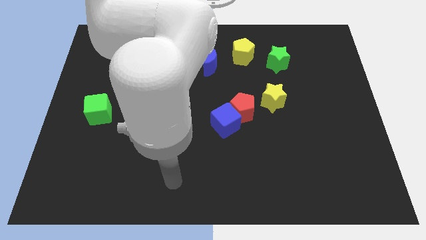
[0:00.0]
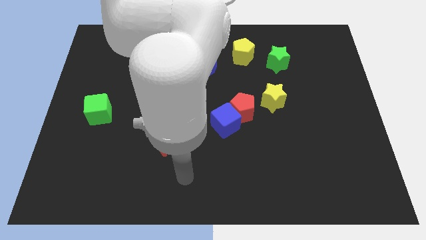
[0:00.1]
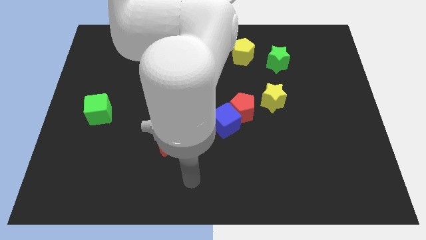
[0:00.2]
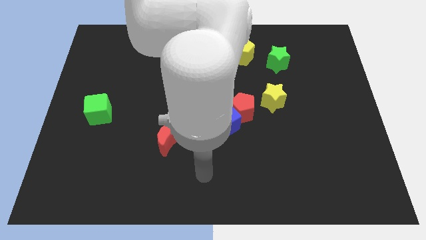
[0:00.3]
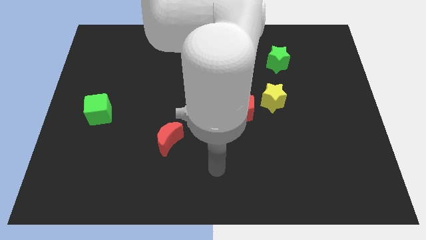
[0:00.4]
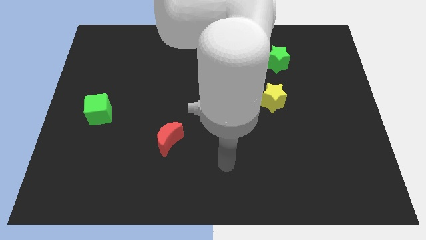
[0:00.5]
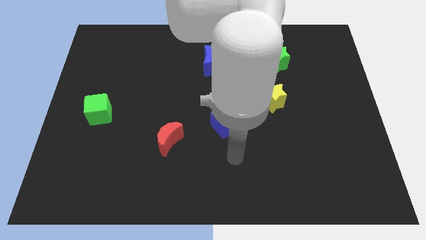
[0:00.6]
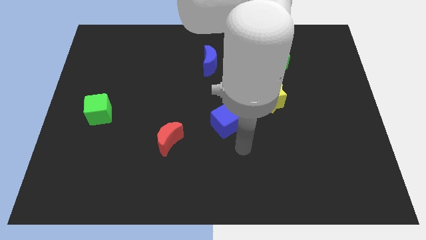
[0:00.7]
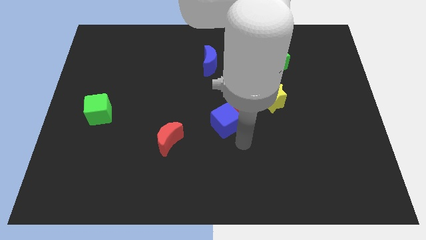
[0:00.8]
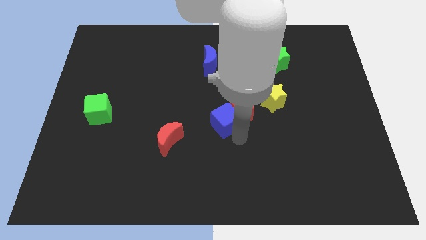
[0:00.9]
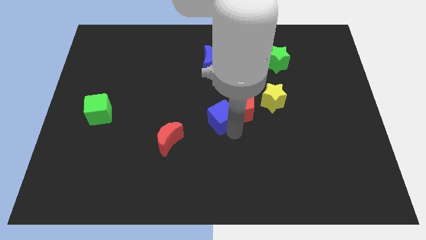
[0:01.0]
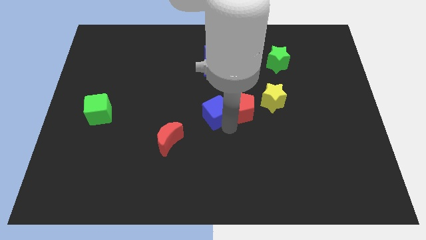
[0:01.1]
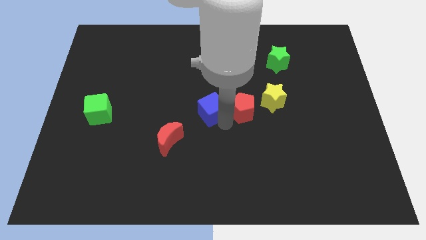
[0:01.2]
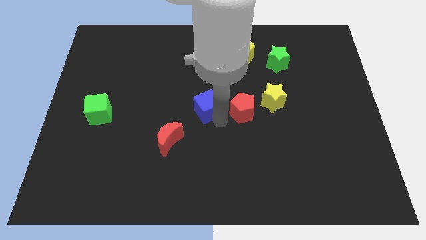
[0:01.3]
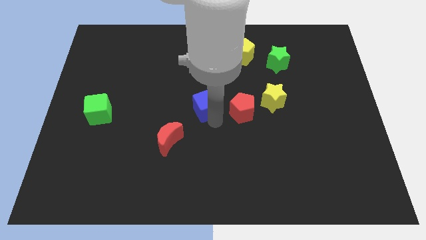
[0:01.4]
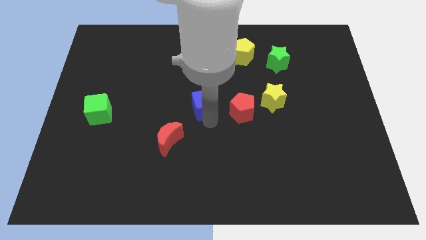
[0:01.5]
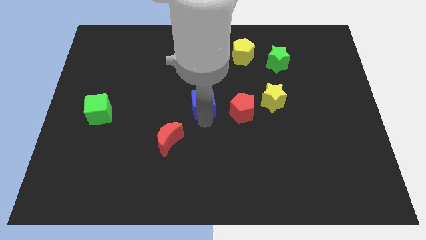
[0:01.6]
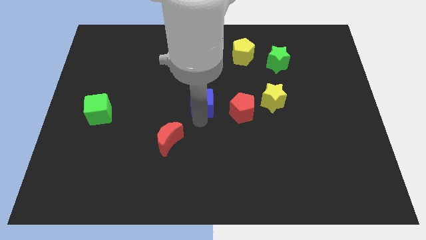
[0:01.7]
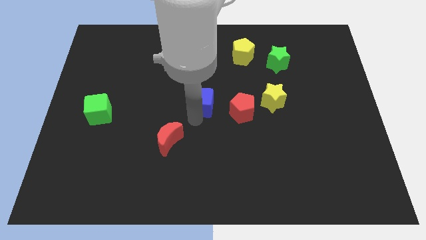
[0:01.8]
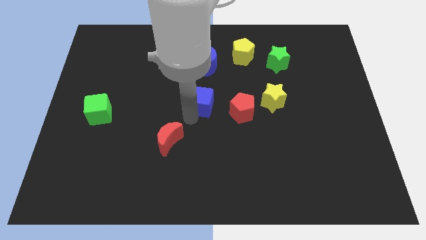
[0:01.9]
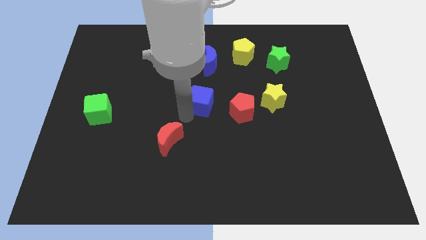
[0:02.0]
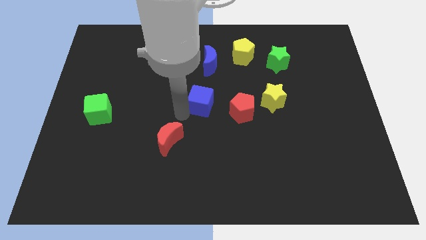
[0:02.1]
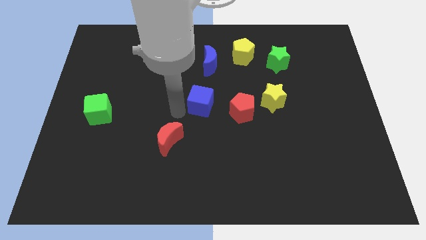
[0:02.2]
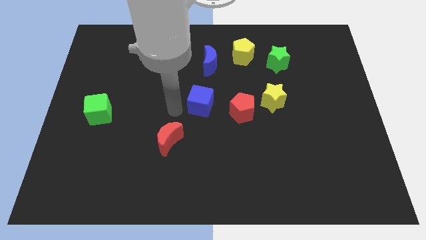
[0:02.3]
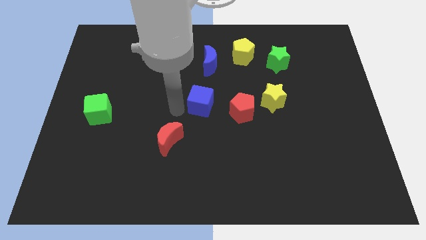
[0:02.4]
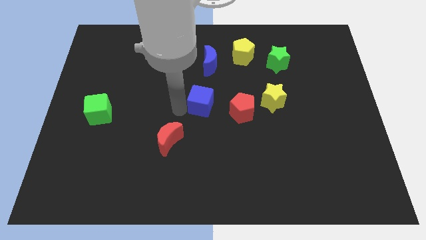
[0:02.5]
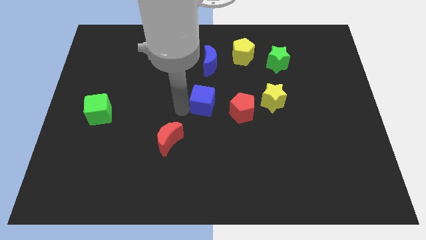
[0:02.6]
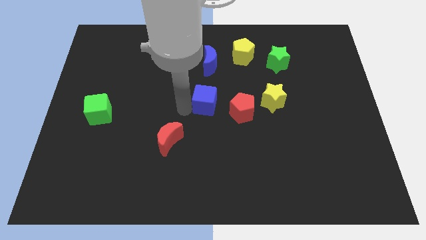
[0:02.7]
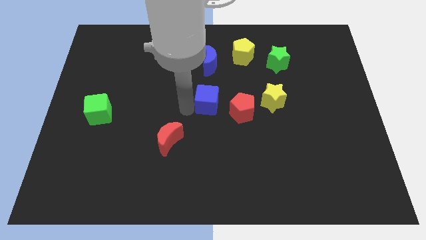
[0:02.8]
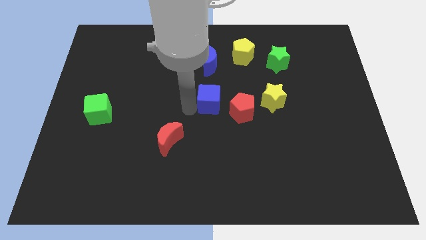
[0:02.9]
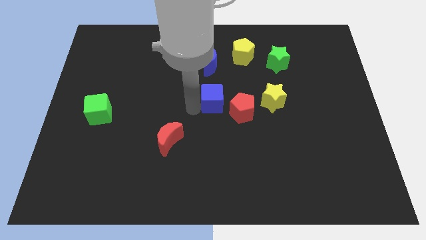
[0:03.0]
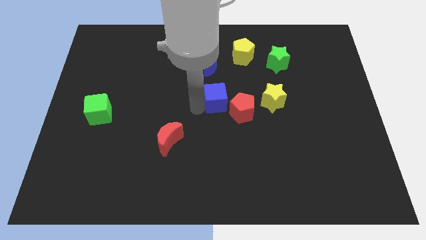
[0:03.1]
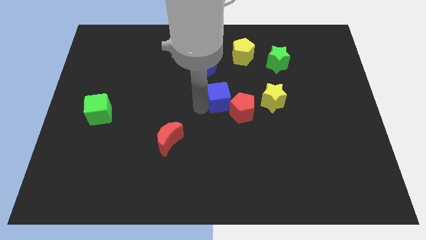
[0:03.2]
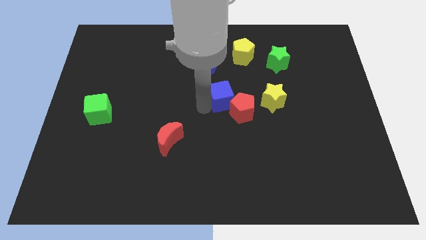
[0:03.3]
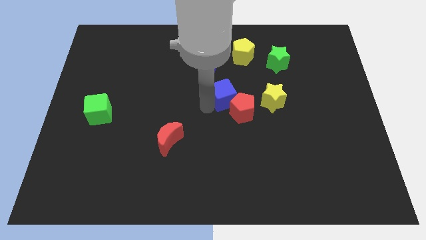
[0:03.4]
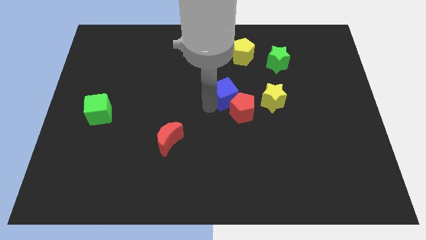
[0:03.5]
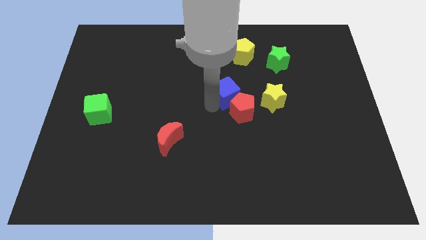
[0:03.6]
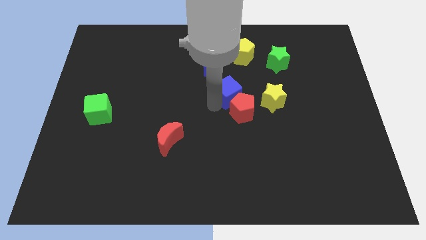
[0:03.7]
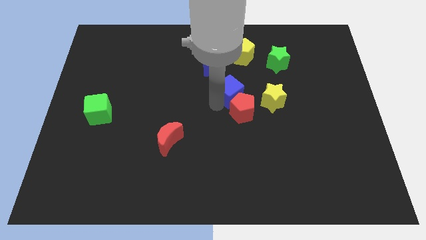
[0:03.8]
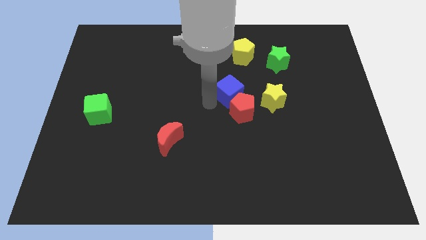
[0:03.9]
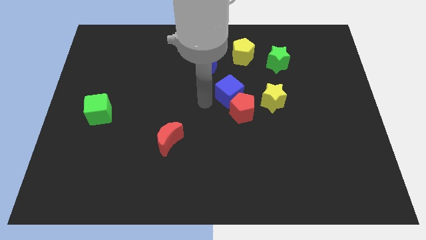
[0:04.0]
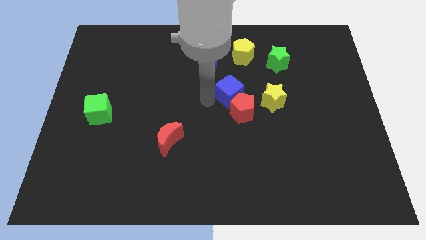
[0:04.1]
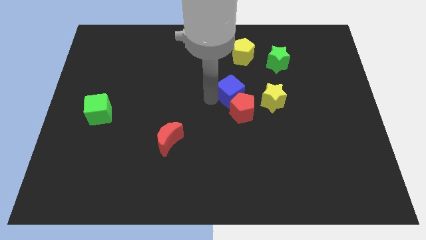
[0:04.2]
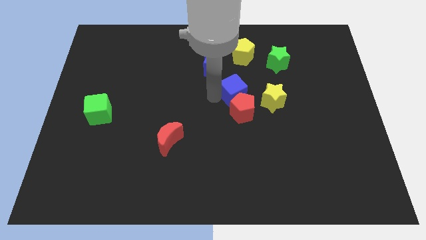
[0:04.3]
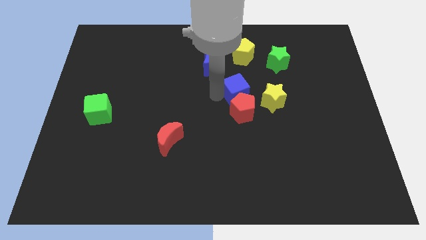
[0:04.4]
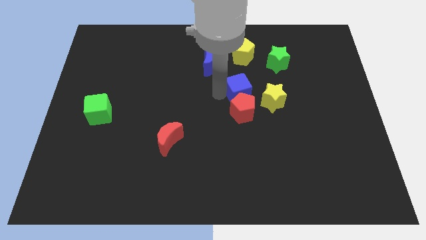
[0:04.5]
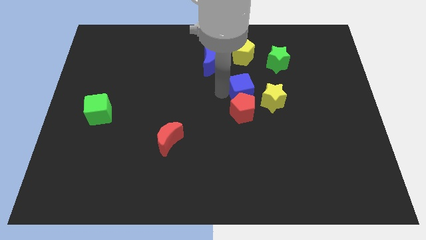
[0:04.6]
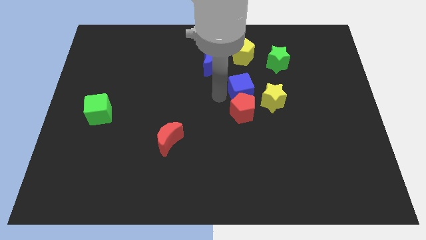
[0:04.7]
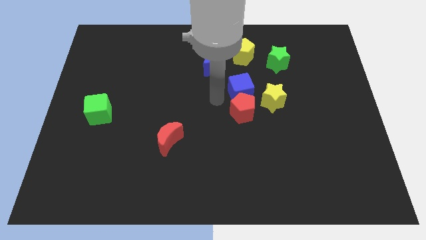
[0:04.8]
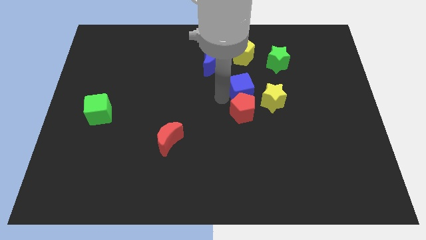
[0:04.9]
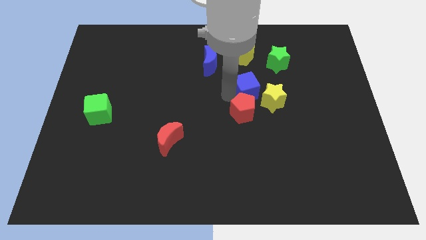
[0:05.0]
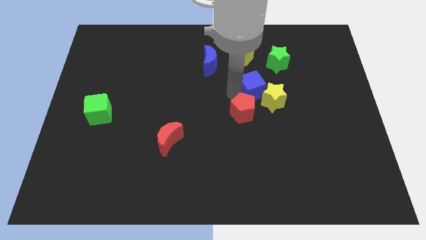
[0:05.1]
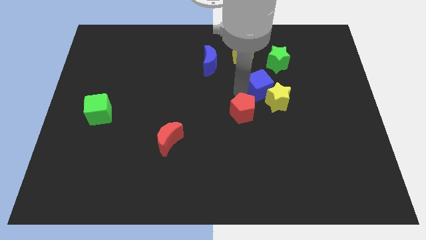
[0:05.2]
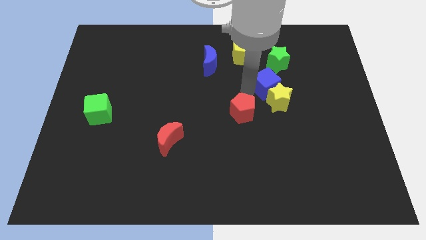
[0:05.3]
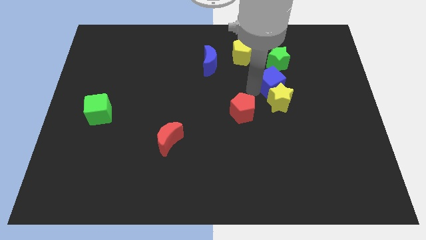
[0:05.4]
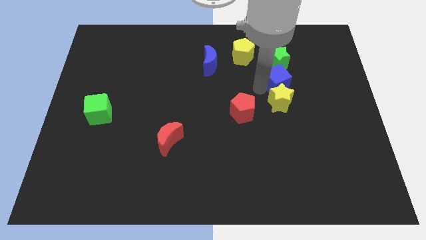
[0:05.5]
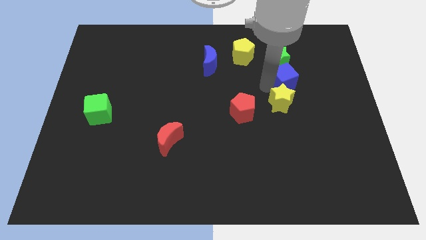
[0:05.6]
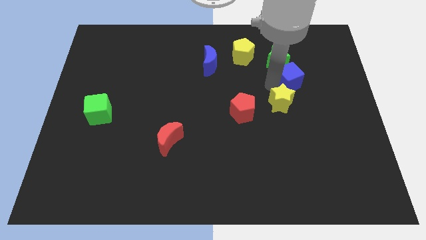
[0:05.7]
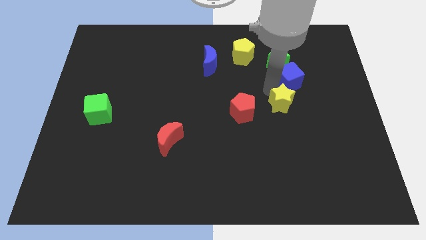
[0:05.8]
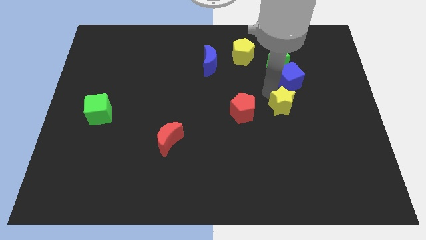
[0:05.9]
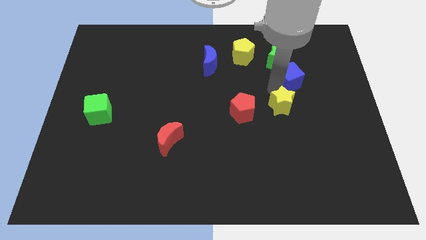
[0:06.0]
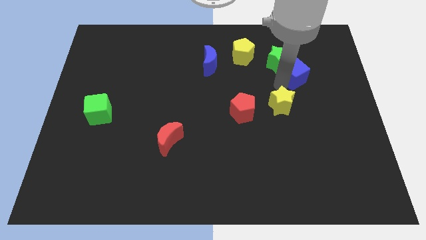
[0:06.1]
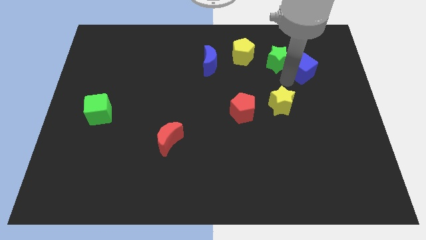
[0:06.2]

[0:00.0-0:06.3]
put the blue cube just right of the green star
